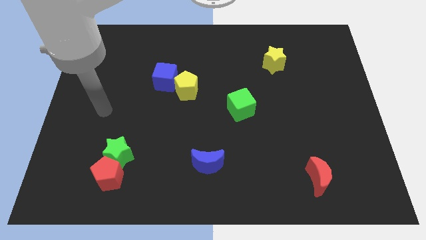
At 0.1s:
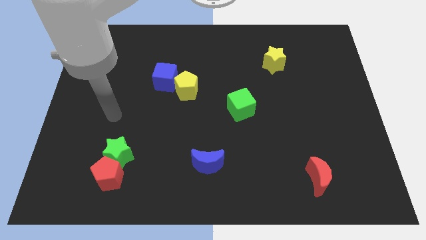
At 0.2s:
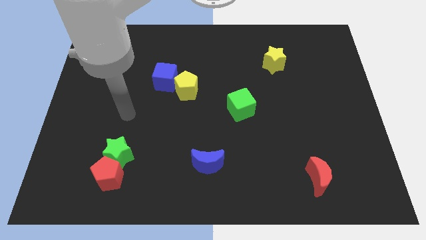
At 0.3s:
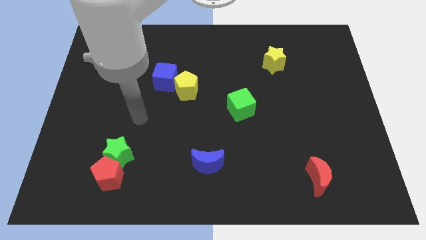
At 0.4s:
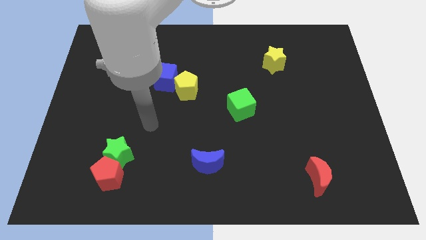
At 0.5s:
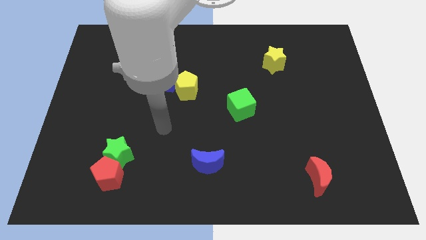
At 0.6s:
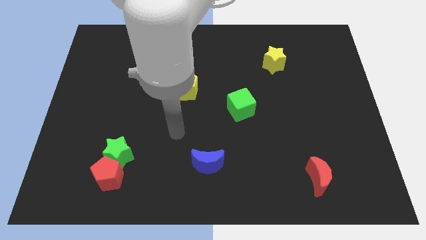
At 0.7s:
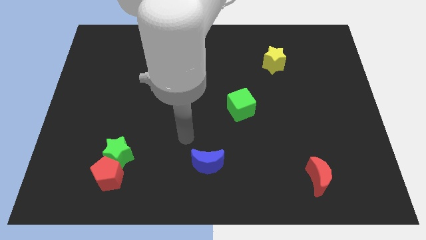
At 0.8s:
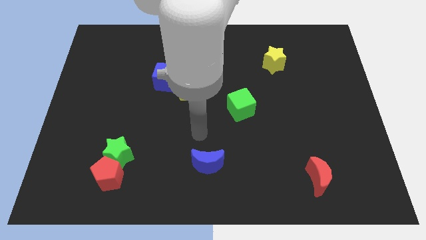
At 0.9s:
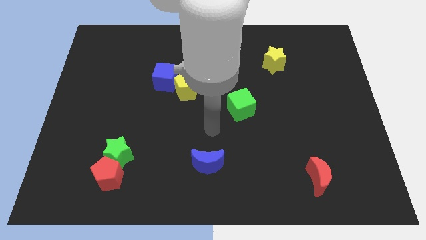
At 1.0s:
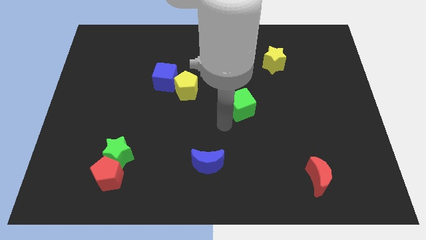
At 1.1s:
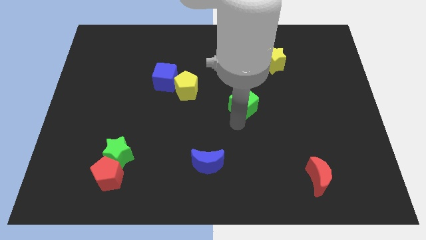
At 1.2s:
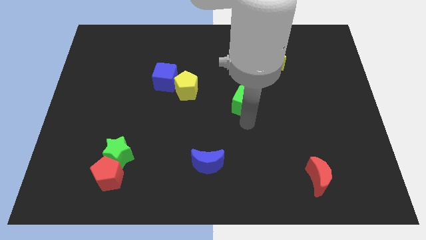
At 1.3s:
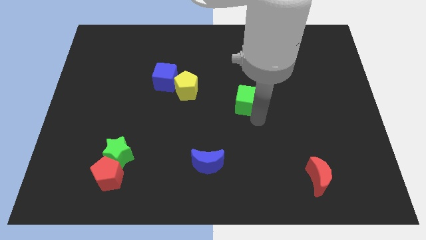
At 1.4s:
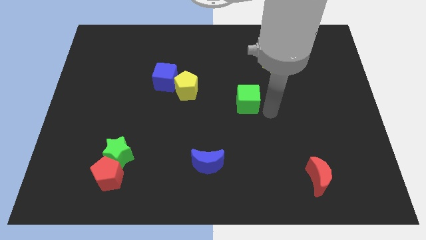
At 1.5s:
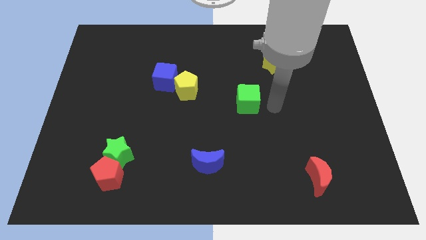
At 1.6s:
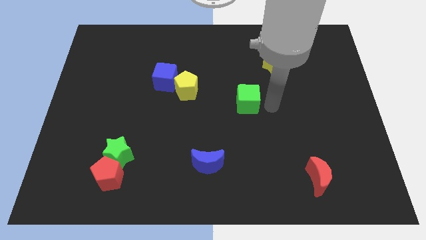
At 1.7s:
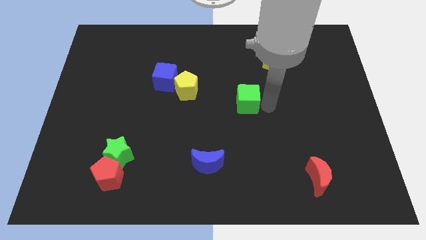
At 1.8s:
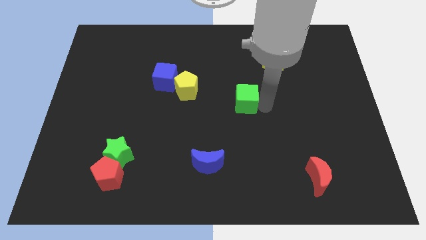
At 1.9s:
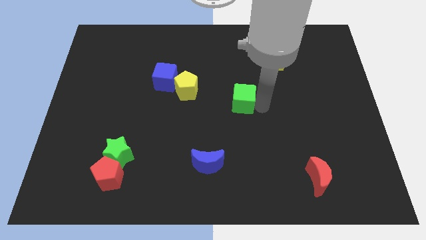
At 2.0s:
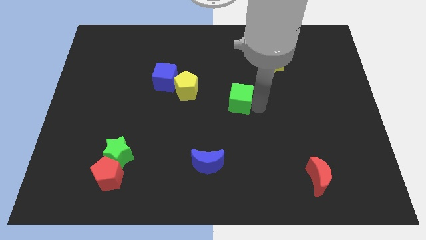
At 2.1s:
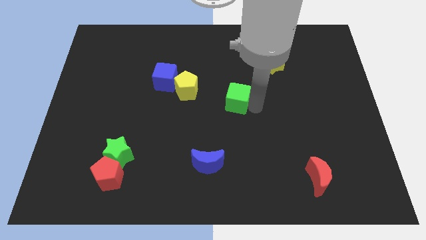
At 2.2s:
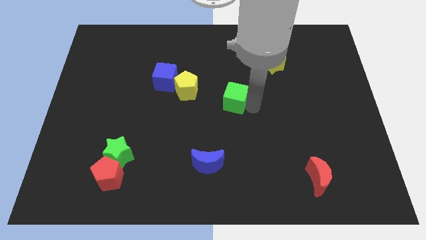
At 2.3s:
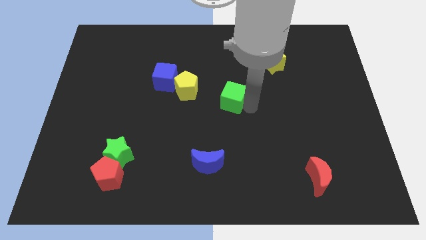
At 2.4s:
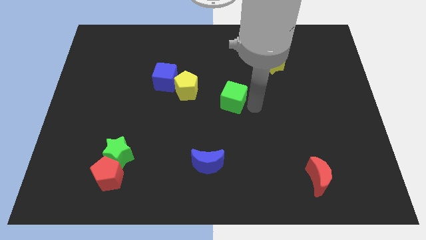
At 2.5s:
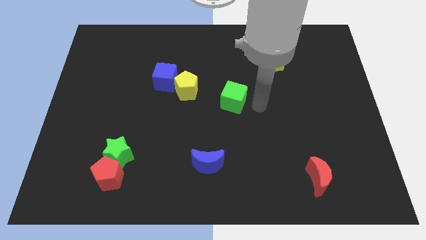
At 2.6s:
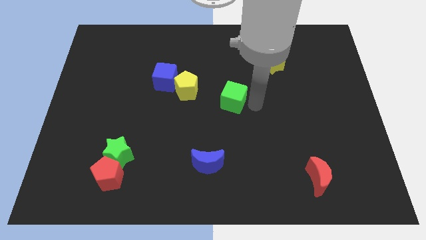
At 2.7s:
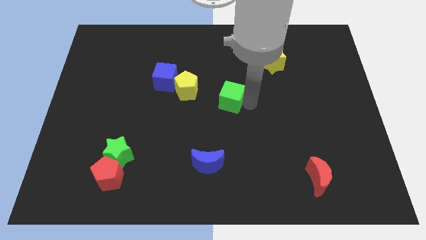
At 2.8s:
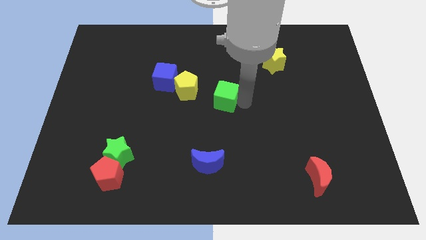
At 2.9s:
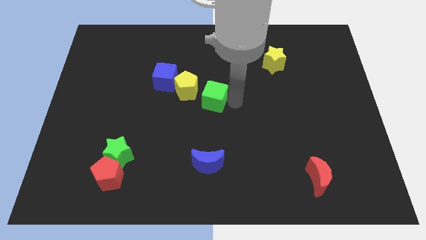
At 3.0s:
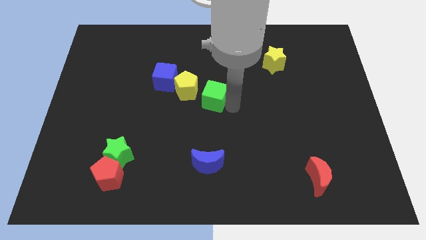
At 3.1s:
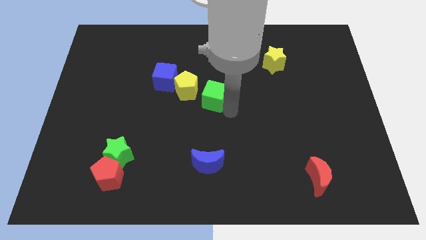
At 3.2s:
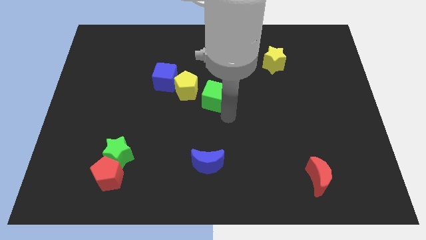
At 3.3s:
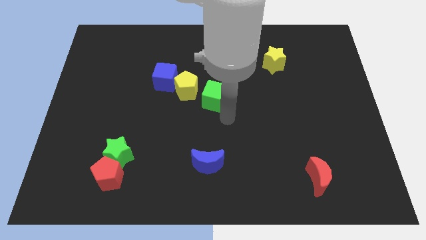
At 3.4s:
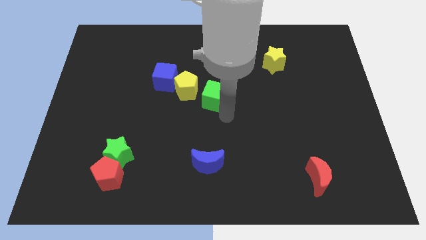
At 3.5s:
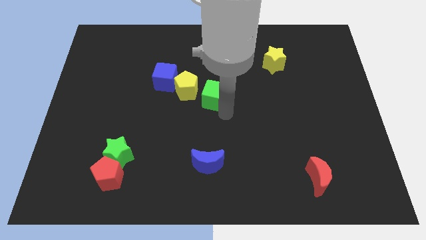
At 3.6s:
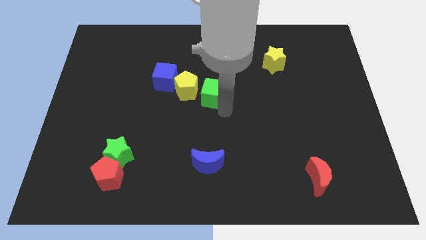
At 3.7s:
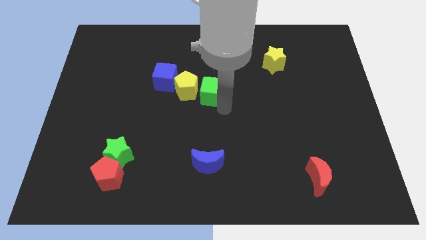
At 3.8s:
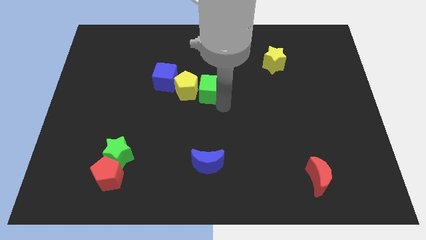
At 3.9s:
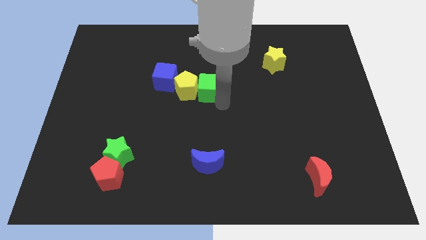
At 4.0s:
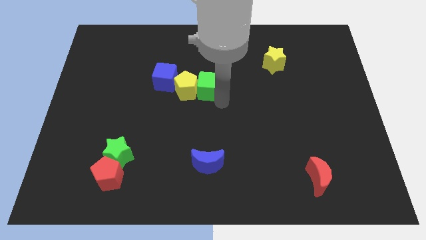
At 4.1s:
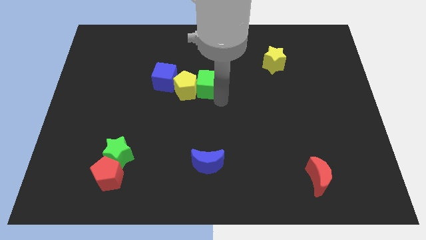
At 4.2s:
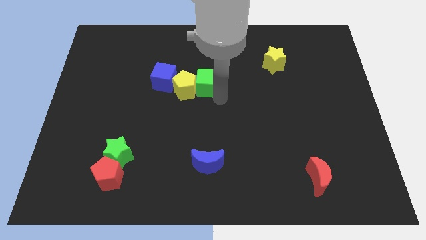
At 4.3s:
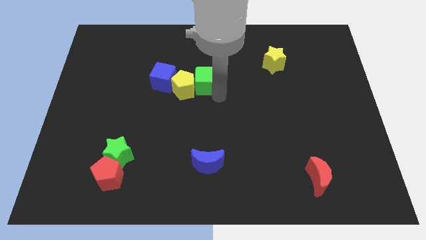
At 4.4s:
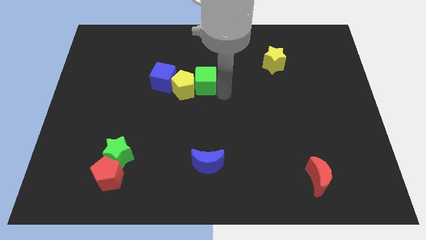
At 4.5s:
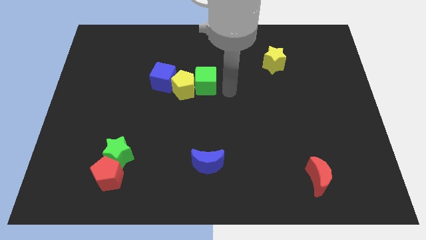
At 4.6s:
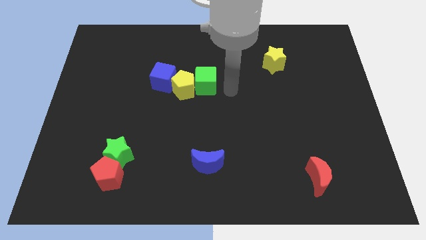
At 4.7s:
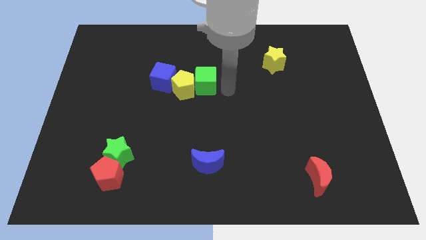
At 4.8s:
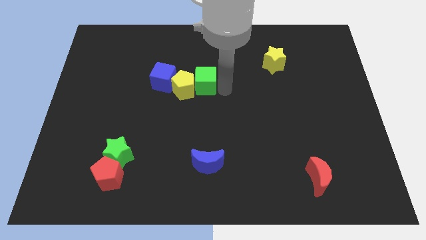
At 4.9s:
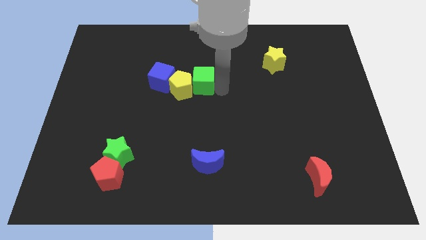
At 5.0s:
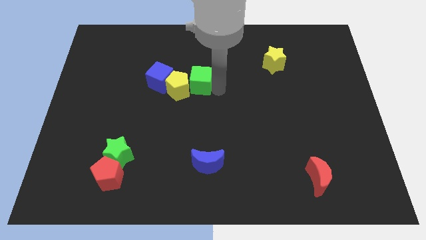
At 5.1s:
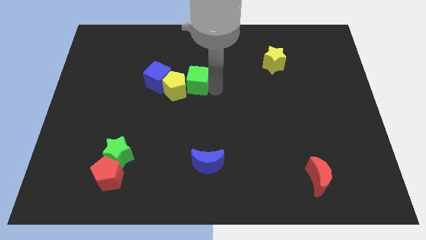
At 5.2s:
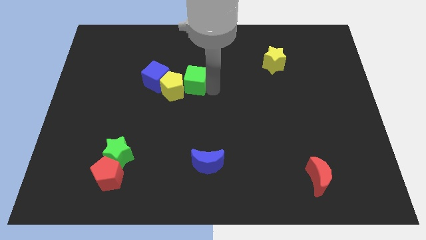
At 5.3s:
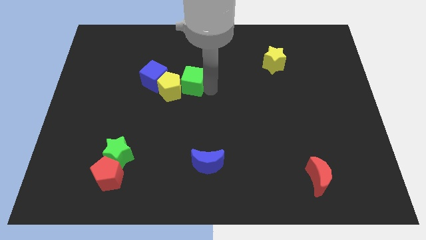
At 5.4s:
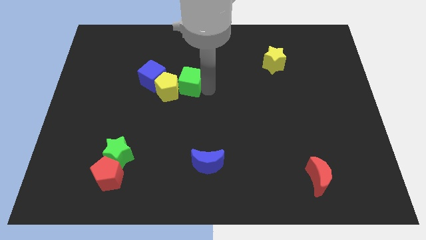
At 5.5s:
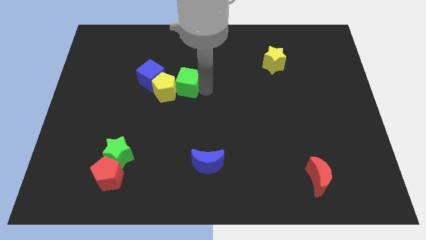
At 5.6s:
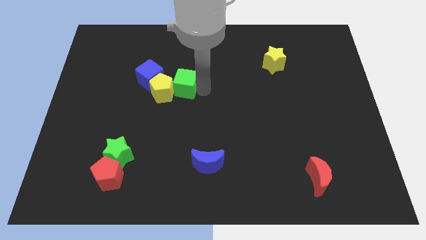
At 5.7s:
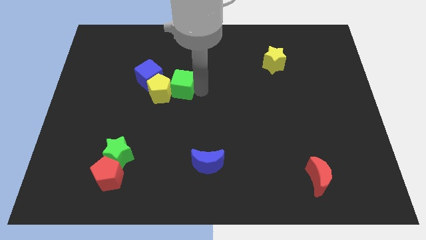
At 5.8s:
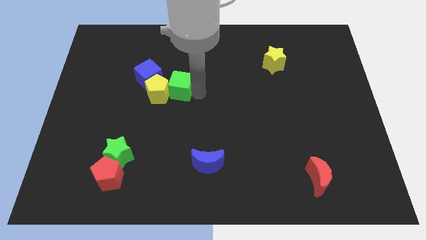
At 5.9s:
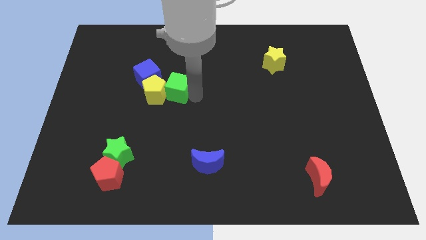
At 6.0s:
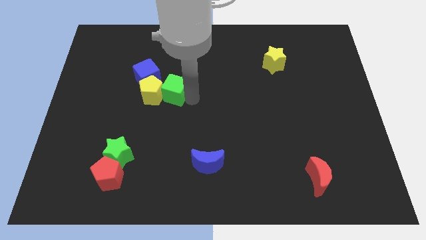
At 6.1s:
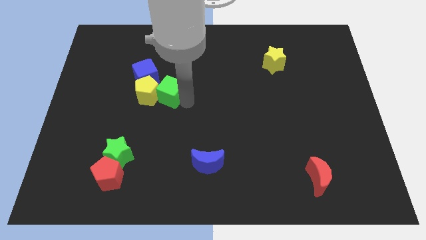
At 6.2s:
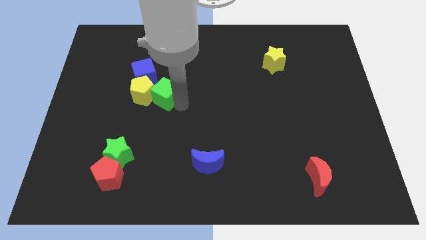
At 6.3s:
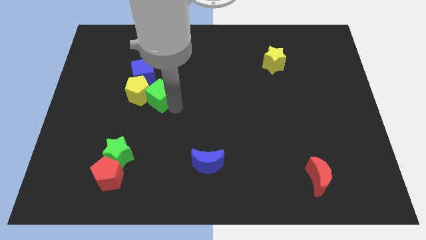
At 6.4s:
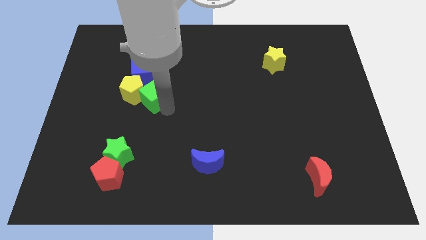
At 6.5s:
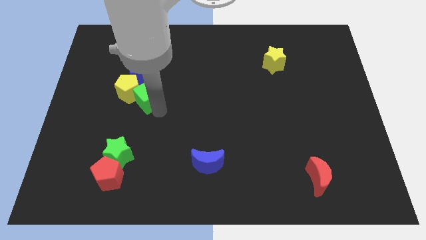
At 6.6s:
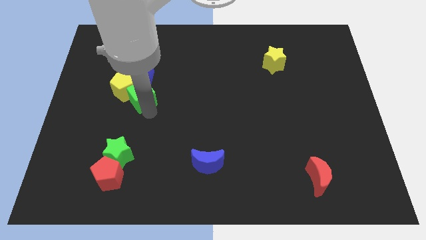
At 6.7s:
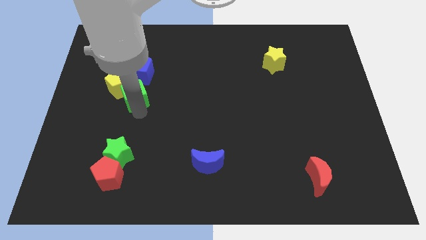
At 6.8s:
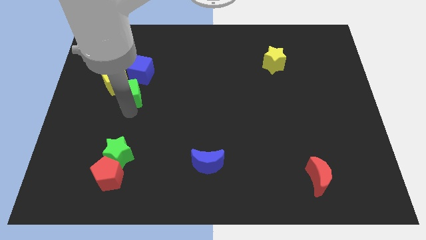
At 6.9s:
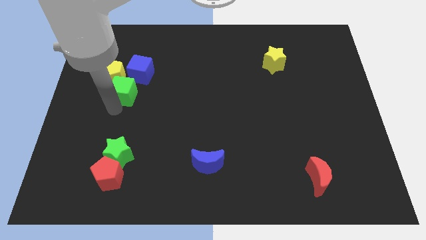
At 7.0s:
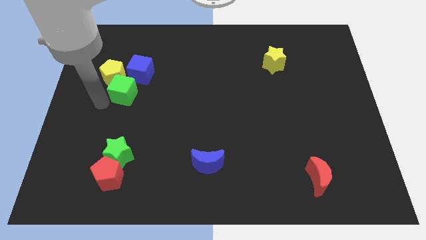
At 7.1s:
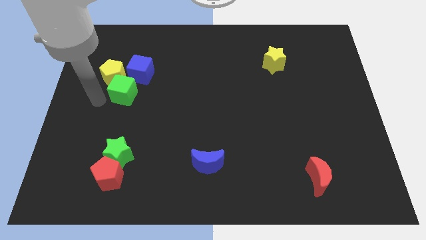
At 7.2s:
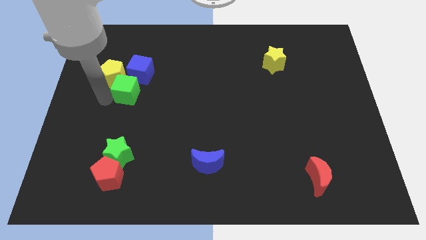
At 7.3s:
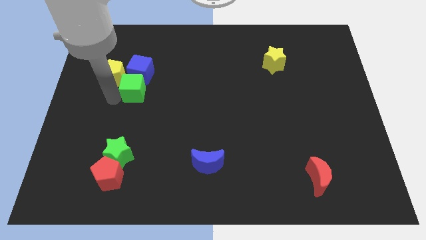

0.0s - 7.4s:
slide the green cube next to the blue cube
